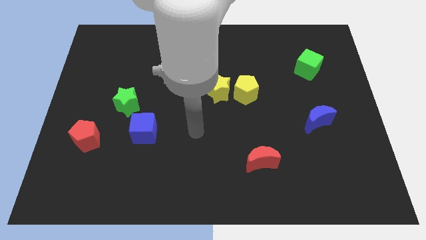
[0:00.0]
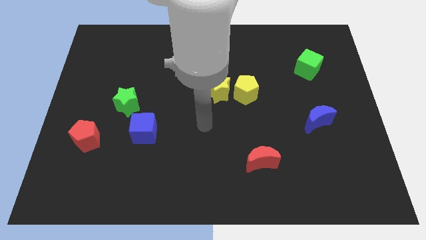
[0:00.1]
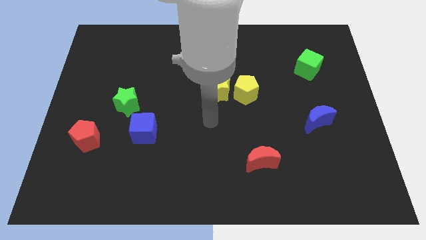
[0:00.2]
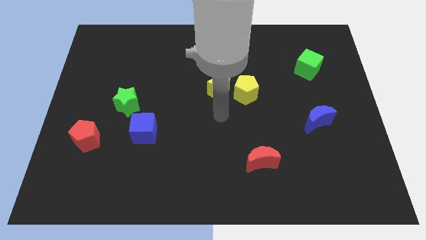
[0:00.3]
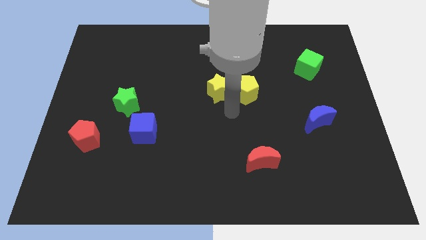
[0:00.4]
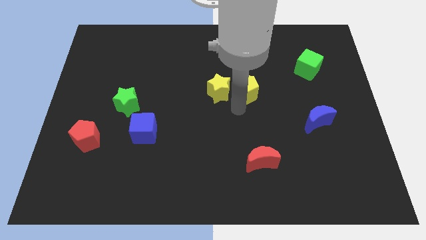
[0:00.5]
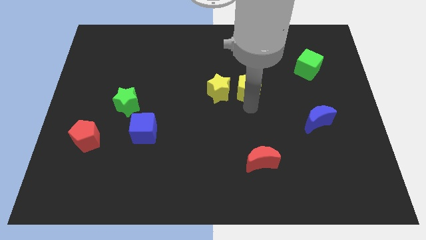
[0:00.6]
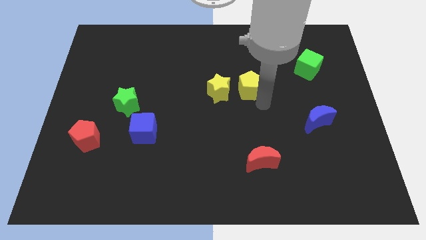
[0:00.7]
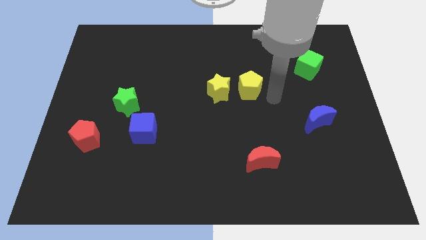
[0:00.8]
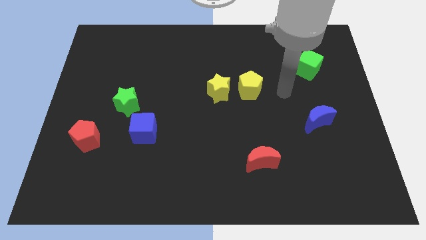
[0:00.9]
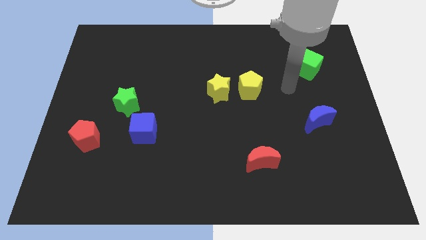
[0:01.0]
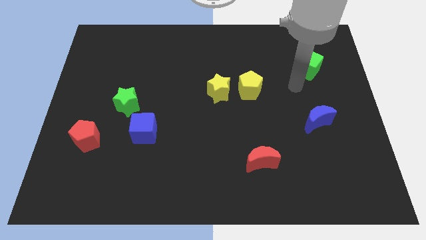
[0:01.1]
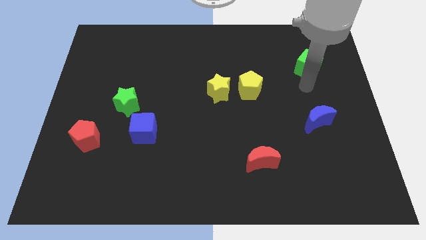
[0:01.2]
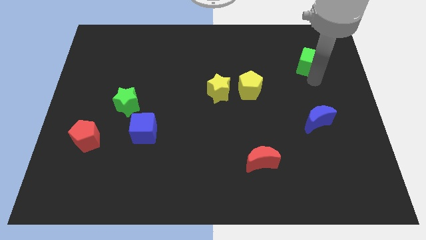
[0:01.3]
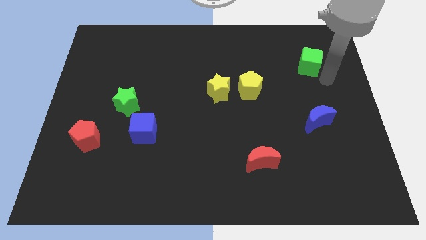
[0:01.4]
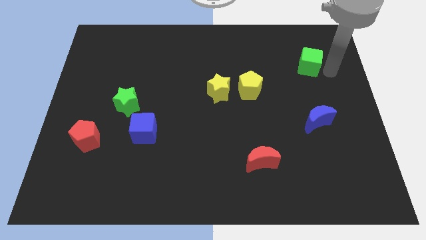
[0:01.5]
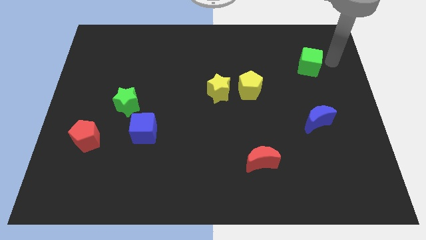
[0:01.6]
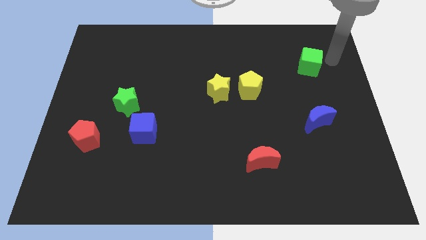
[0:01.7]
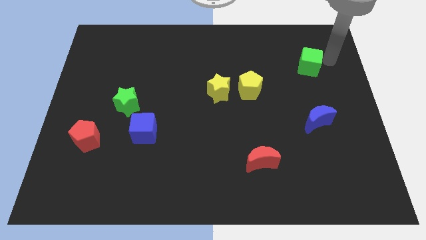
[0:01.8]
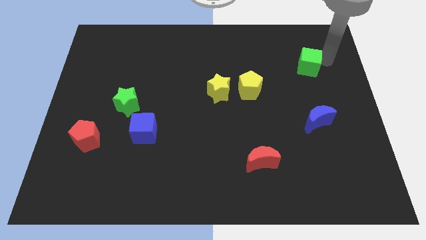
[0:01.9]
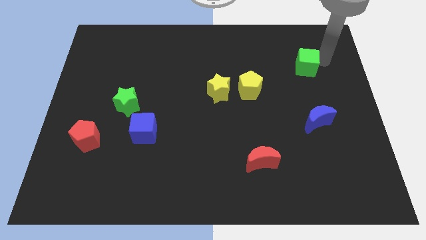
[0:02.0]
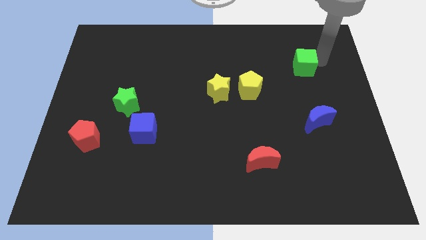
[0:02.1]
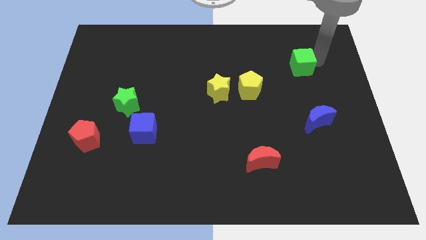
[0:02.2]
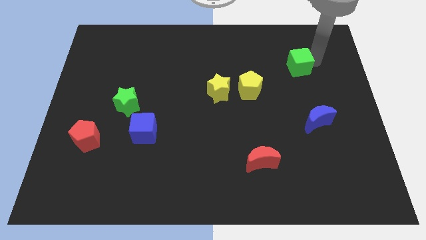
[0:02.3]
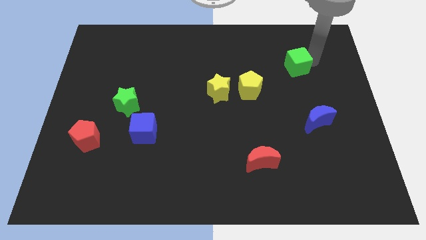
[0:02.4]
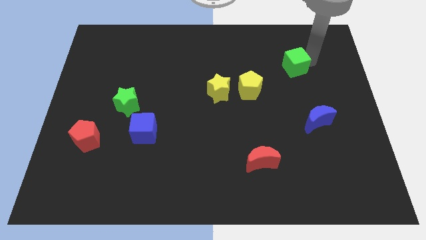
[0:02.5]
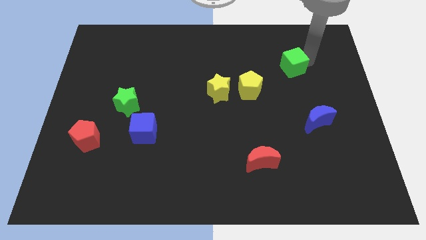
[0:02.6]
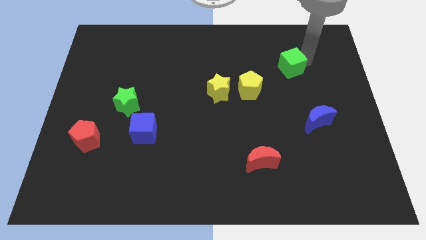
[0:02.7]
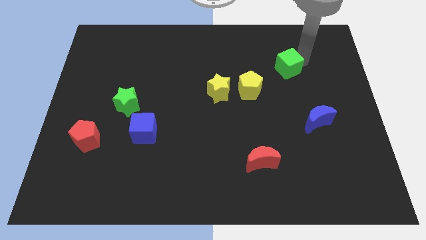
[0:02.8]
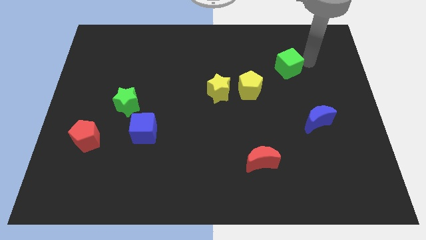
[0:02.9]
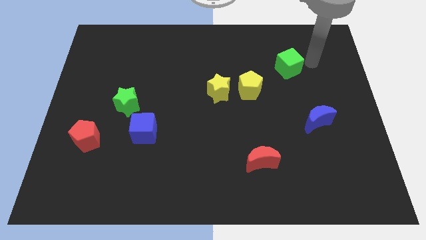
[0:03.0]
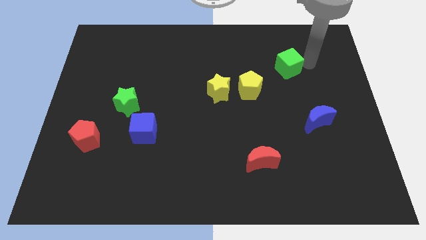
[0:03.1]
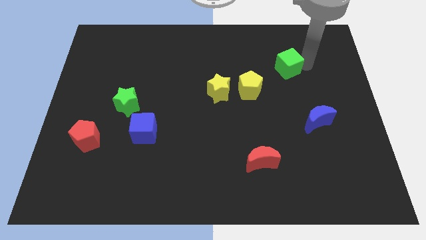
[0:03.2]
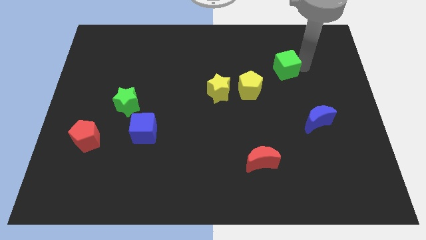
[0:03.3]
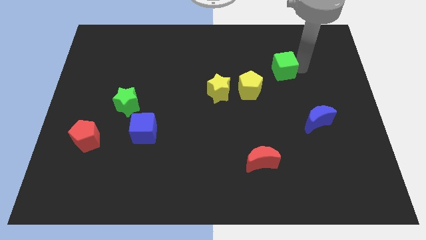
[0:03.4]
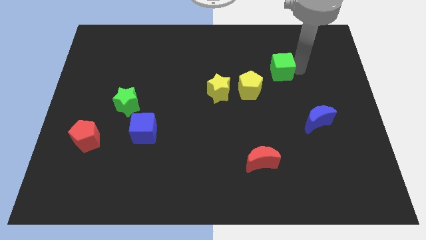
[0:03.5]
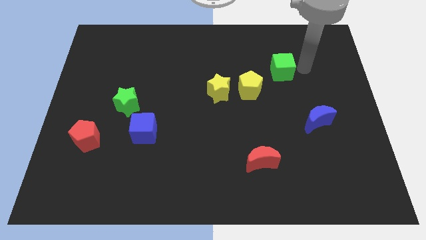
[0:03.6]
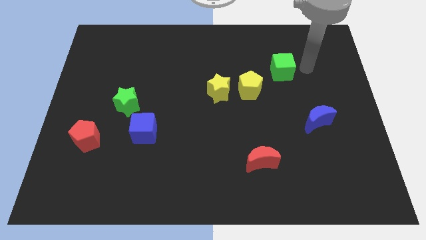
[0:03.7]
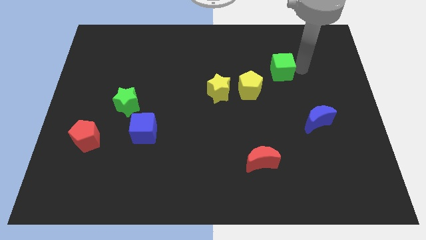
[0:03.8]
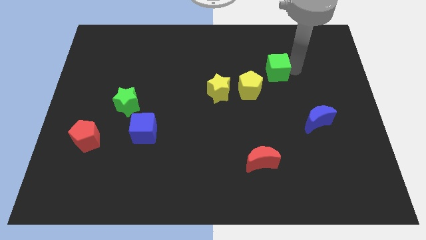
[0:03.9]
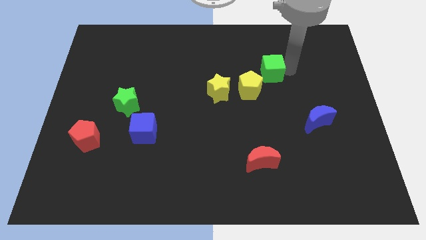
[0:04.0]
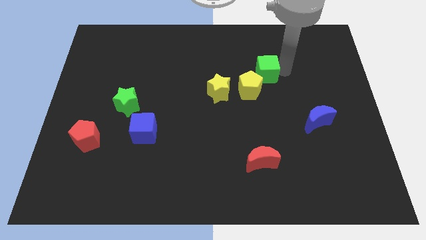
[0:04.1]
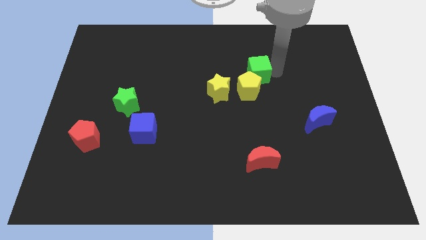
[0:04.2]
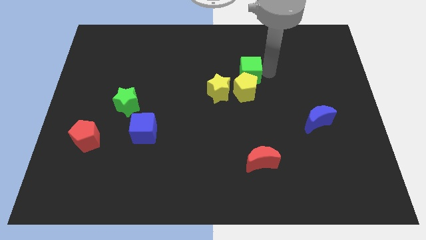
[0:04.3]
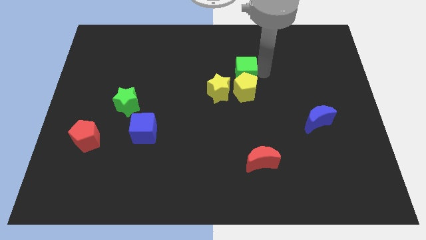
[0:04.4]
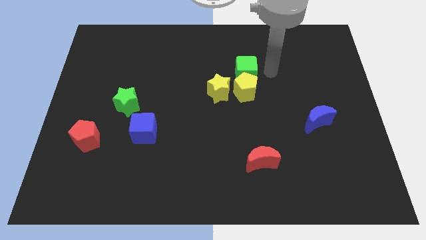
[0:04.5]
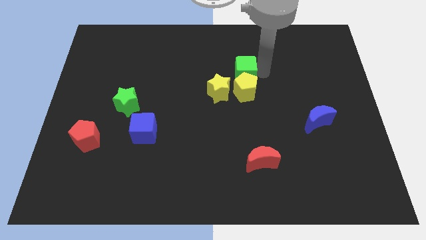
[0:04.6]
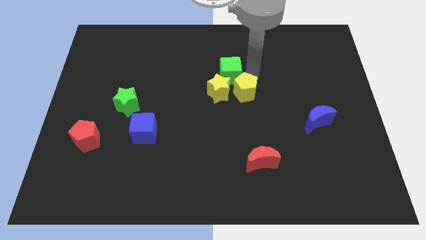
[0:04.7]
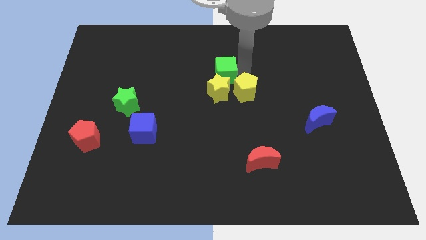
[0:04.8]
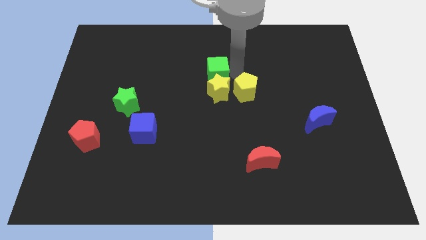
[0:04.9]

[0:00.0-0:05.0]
put the green cube to the top left of the yellow star

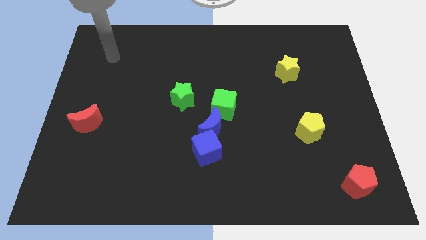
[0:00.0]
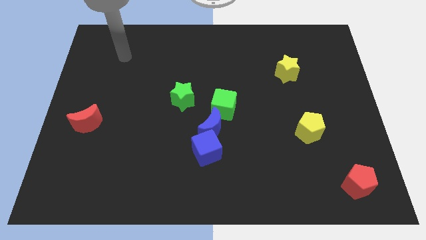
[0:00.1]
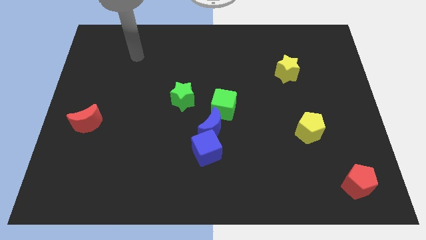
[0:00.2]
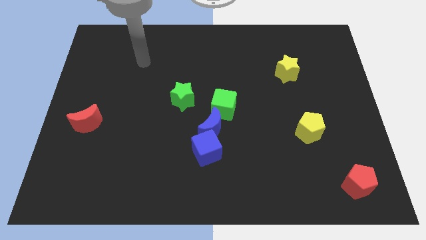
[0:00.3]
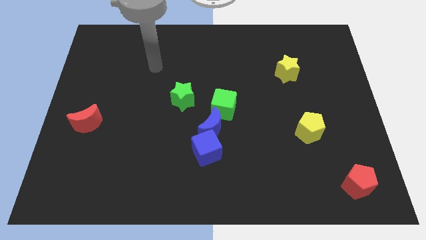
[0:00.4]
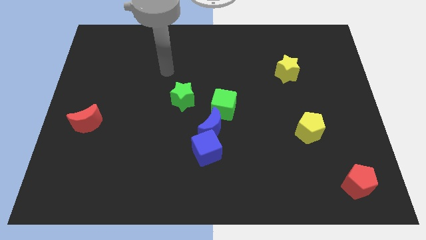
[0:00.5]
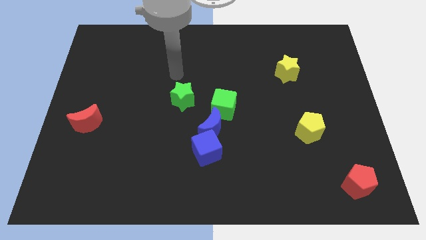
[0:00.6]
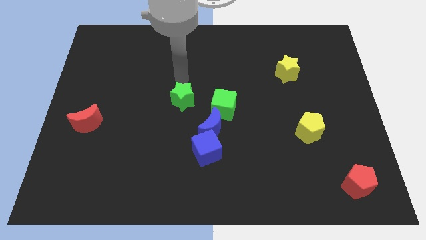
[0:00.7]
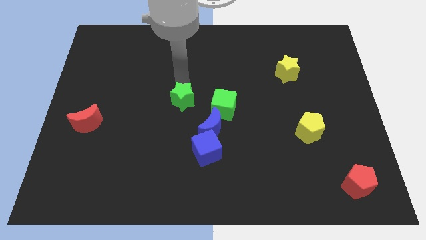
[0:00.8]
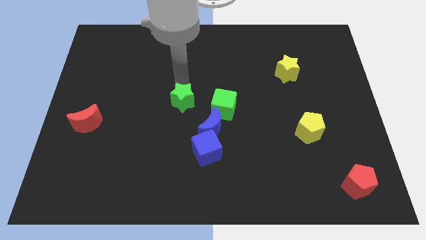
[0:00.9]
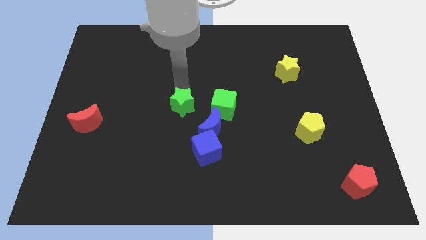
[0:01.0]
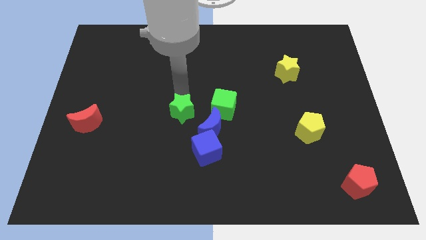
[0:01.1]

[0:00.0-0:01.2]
put the green star to the top left of the blue cube
